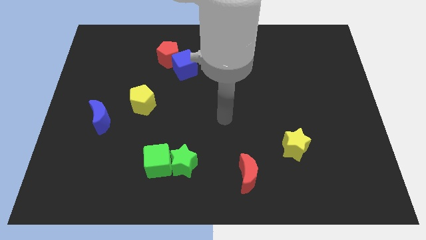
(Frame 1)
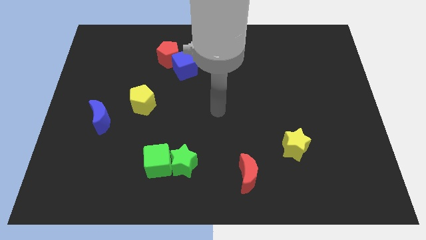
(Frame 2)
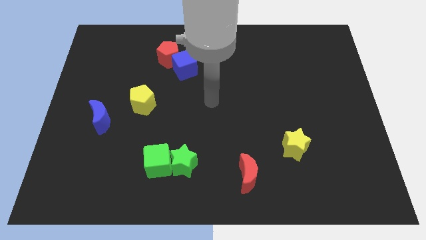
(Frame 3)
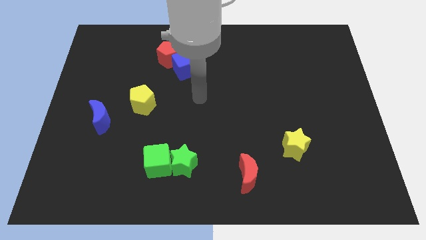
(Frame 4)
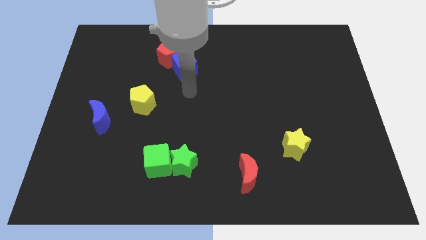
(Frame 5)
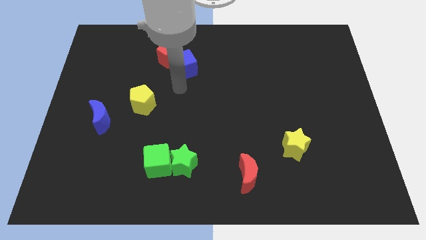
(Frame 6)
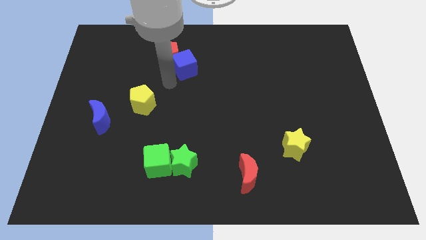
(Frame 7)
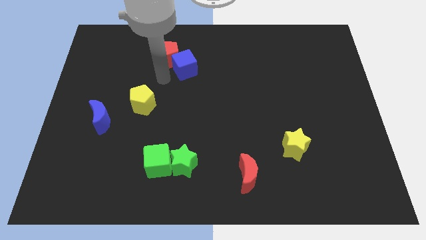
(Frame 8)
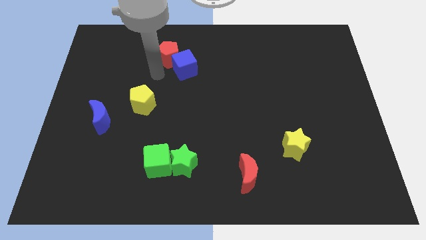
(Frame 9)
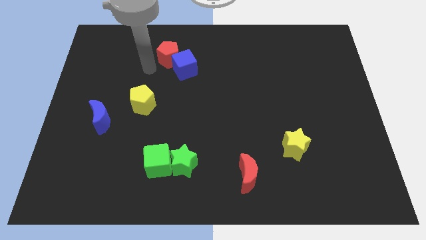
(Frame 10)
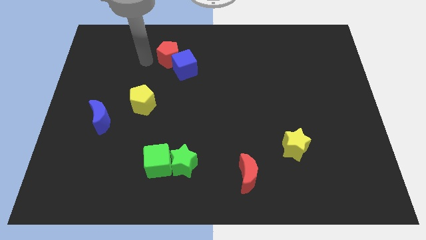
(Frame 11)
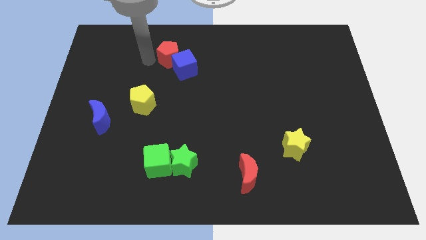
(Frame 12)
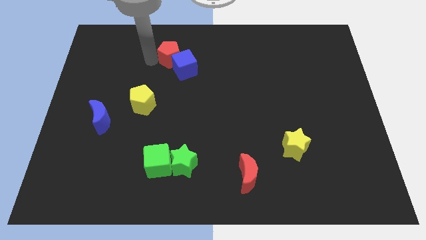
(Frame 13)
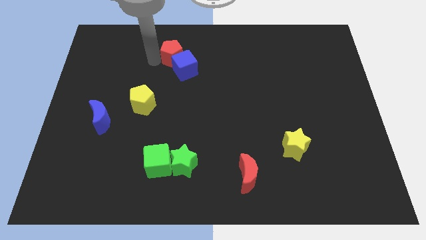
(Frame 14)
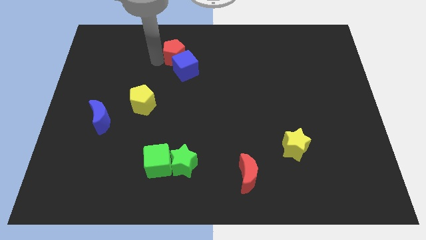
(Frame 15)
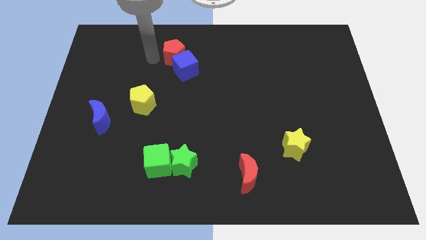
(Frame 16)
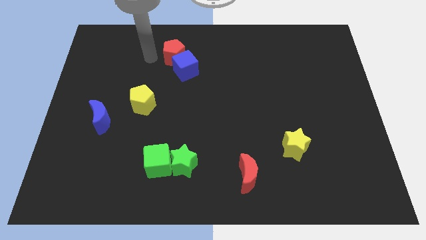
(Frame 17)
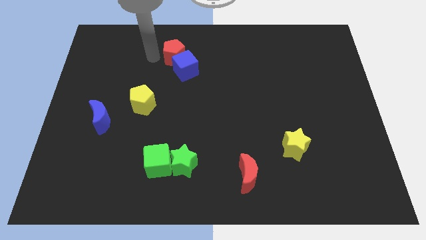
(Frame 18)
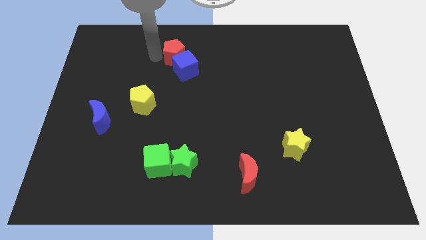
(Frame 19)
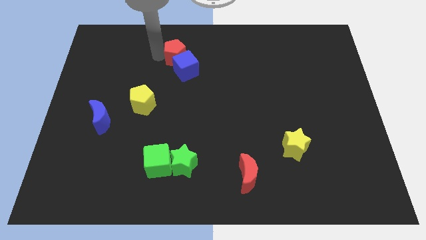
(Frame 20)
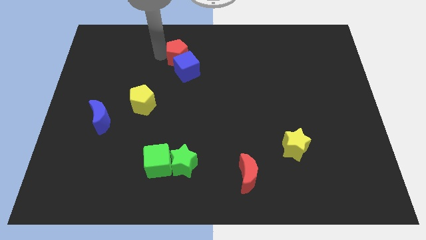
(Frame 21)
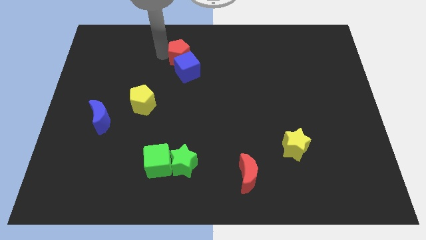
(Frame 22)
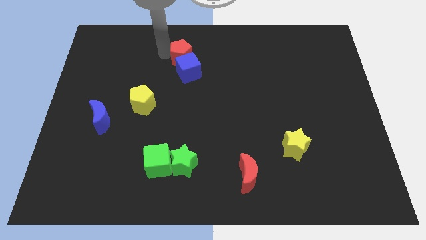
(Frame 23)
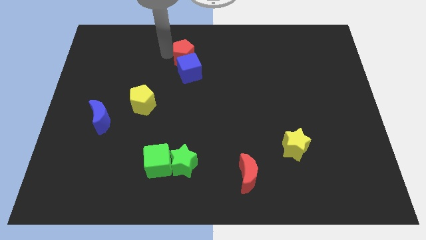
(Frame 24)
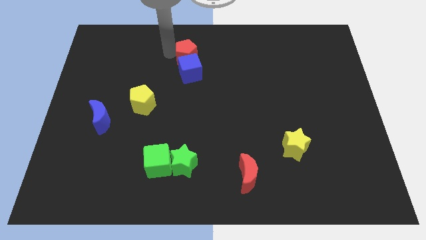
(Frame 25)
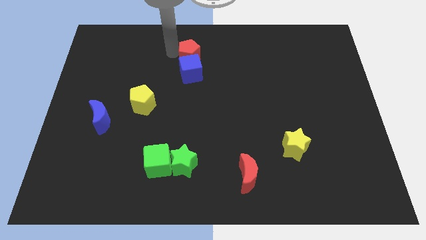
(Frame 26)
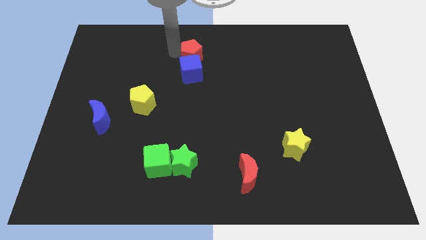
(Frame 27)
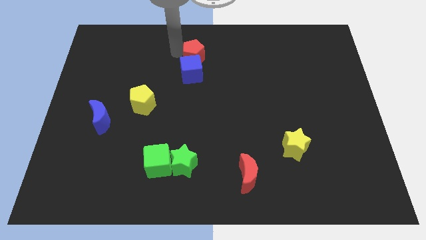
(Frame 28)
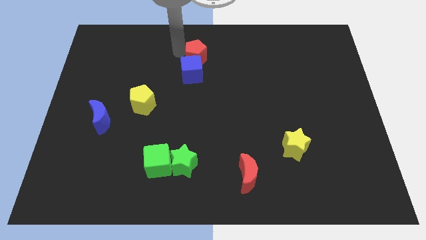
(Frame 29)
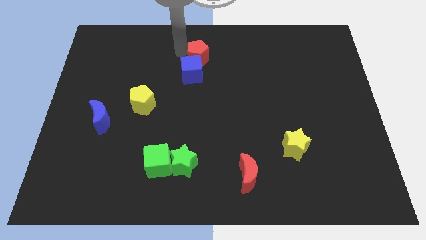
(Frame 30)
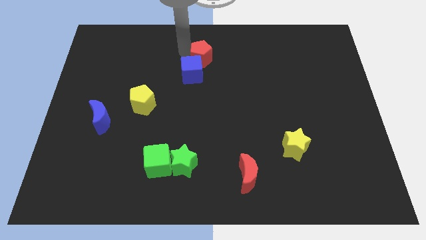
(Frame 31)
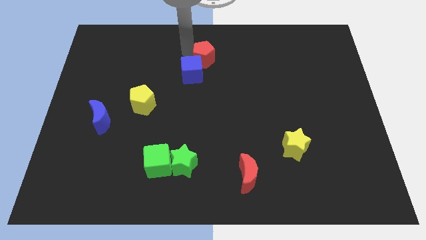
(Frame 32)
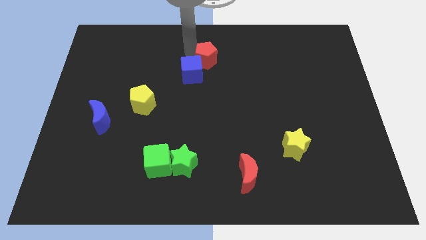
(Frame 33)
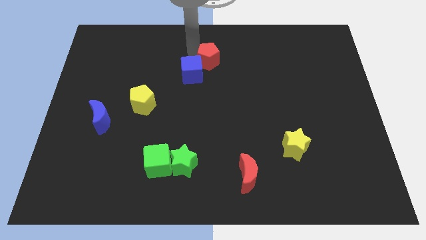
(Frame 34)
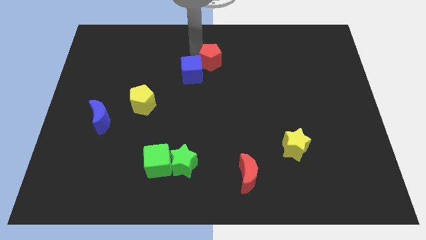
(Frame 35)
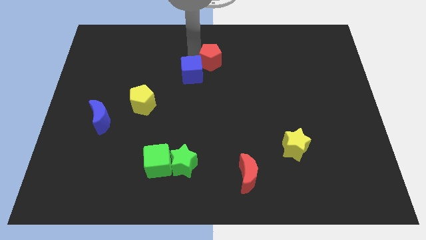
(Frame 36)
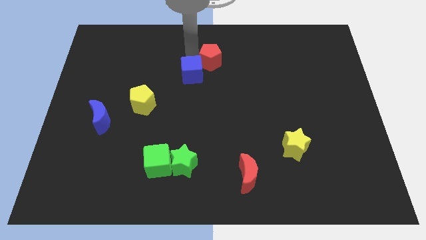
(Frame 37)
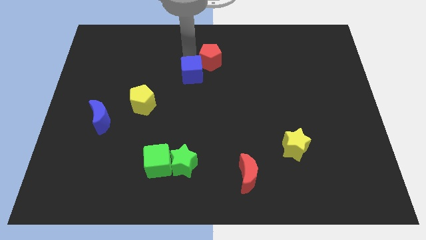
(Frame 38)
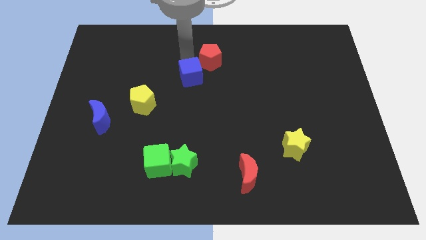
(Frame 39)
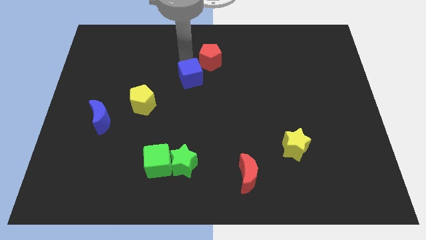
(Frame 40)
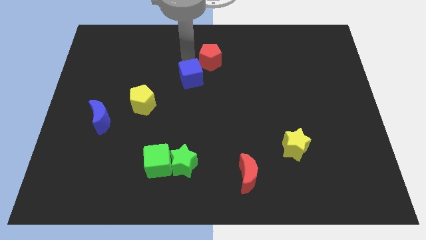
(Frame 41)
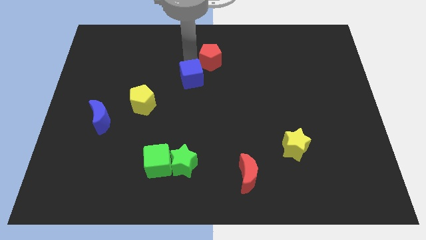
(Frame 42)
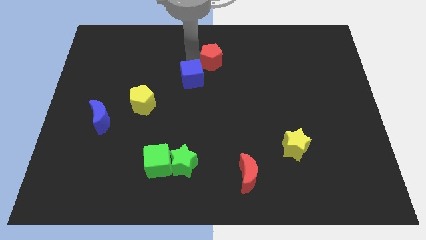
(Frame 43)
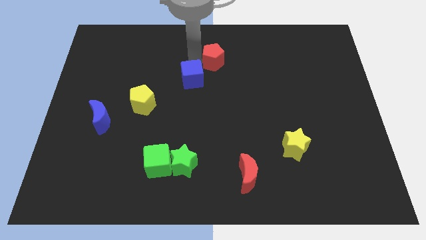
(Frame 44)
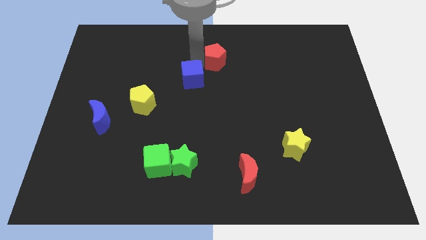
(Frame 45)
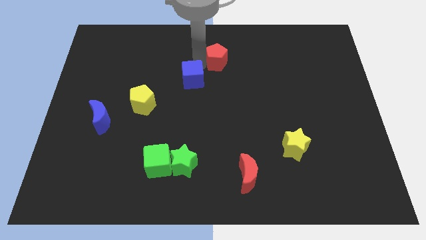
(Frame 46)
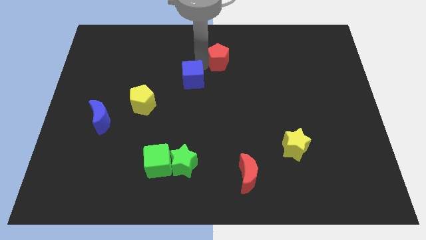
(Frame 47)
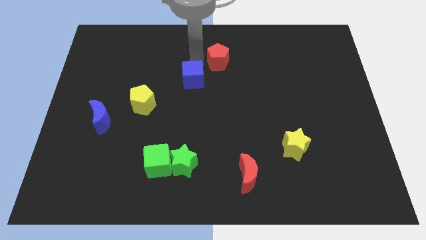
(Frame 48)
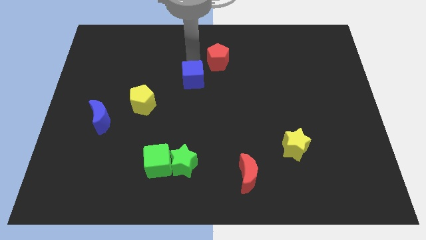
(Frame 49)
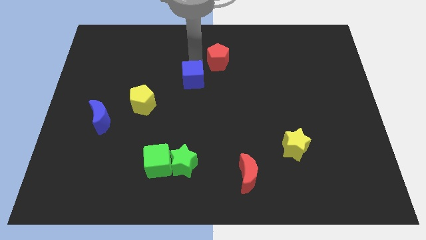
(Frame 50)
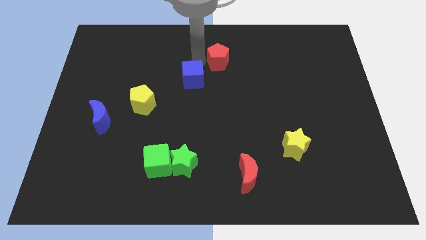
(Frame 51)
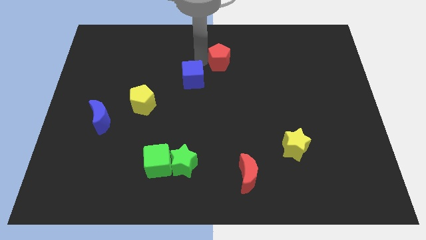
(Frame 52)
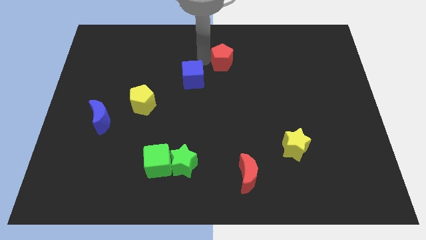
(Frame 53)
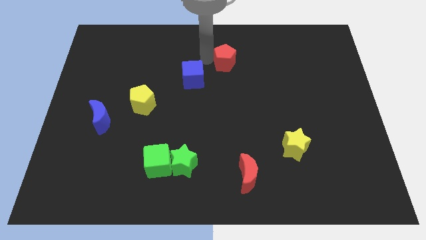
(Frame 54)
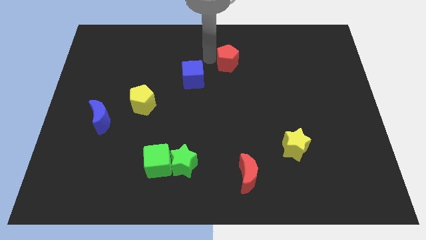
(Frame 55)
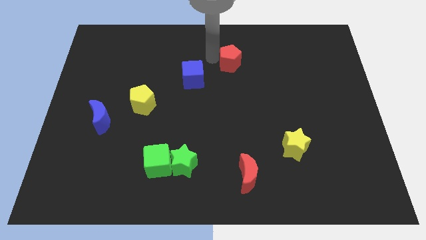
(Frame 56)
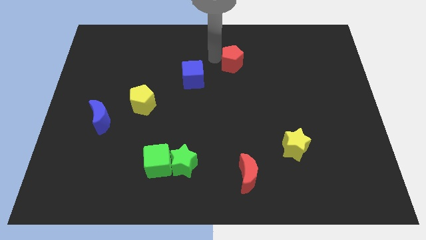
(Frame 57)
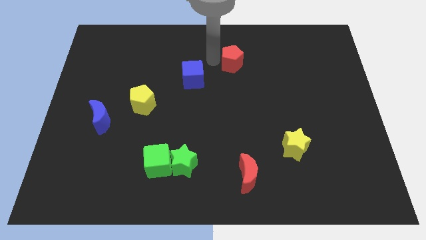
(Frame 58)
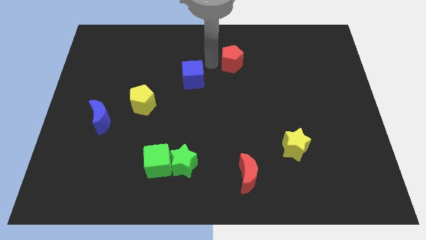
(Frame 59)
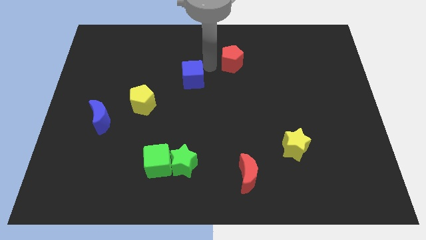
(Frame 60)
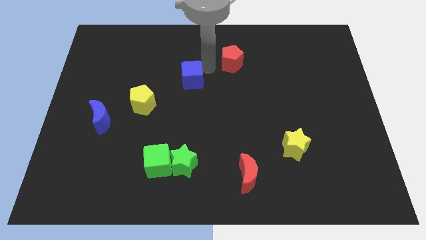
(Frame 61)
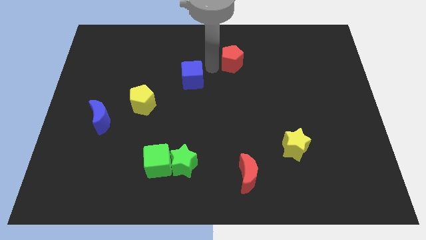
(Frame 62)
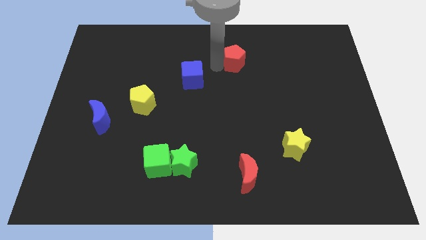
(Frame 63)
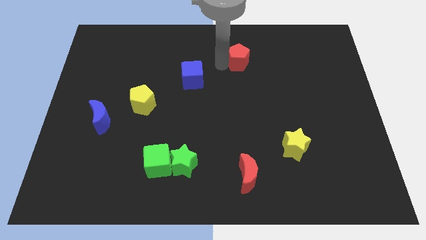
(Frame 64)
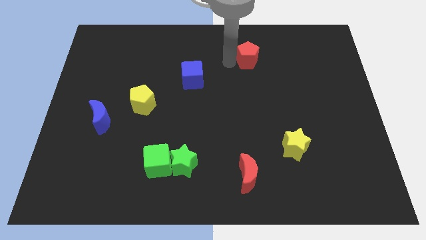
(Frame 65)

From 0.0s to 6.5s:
slide the red pentagon right

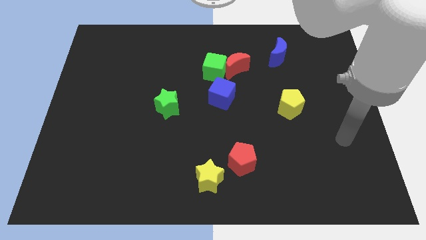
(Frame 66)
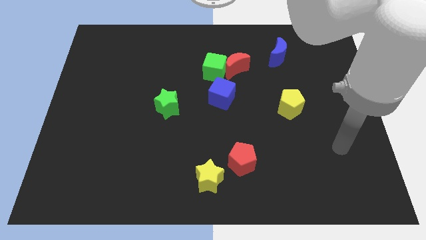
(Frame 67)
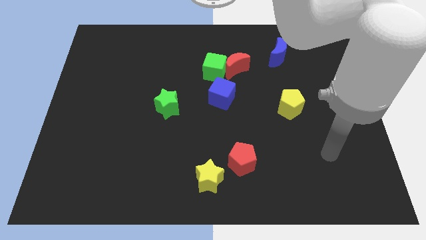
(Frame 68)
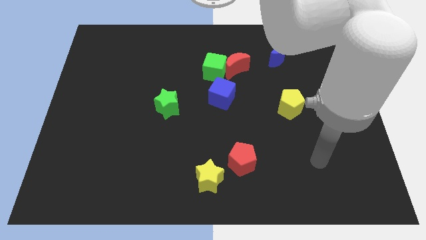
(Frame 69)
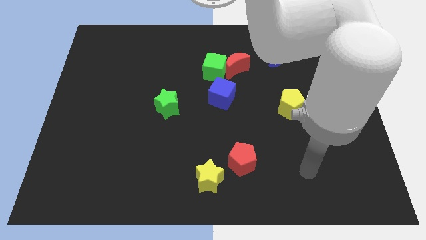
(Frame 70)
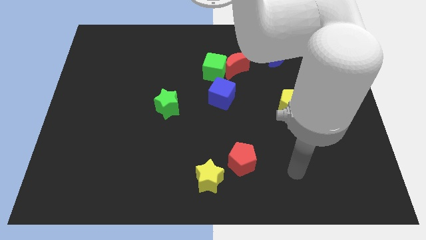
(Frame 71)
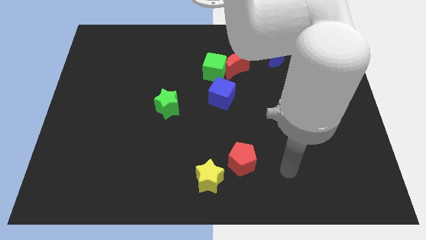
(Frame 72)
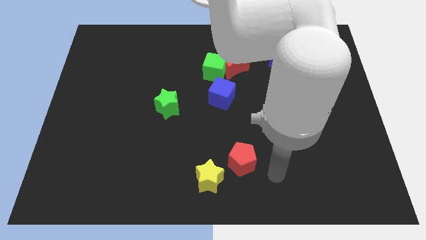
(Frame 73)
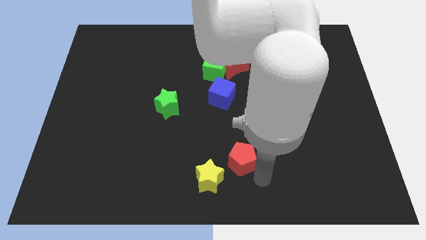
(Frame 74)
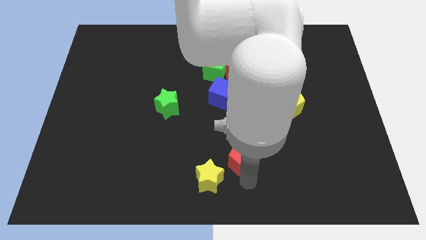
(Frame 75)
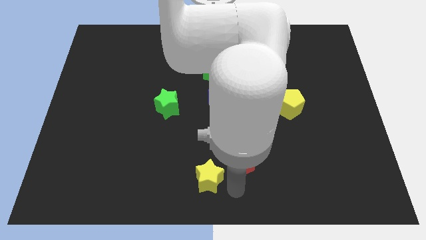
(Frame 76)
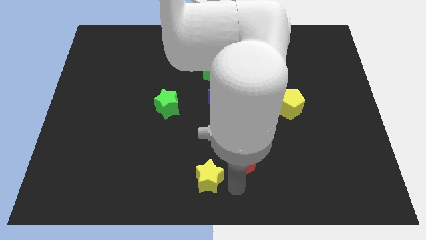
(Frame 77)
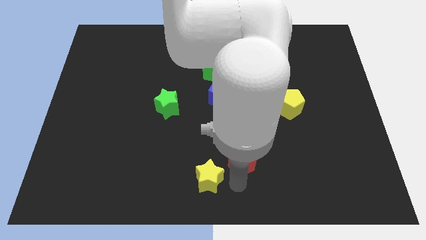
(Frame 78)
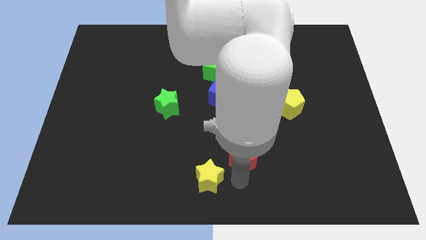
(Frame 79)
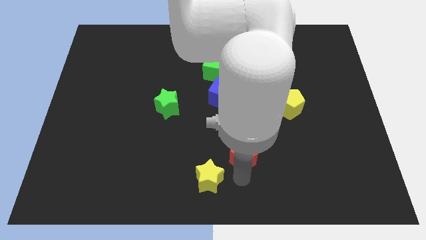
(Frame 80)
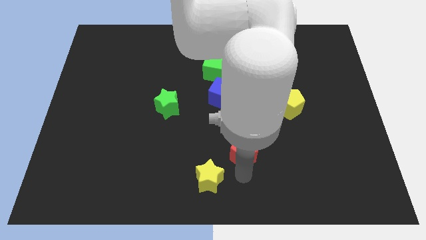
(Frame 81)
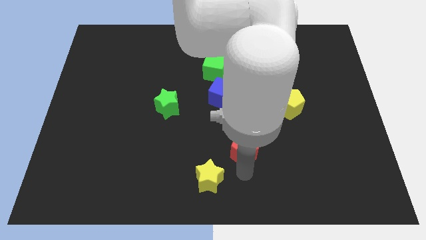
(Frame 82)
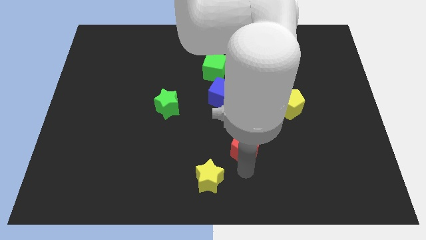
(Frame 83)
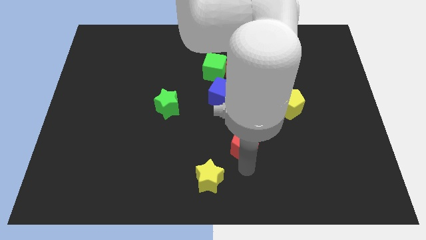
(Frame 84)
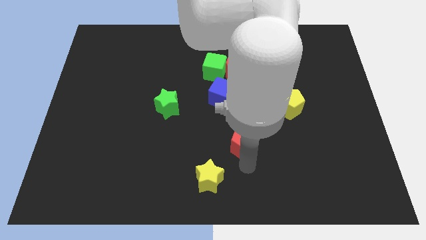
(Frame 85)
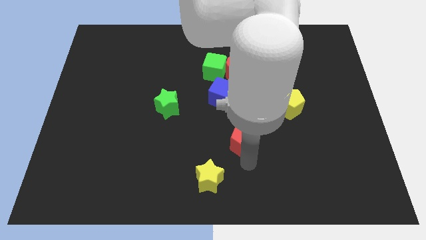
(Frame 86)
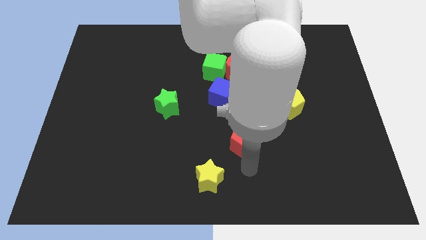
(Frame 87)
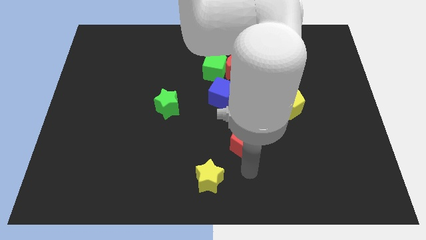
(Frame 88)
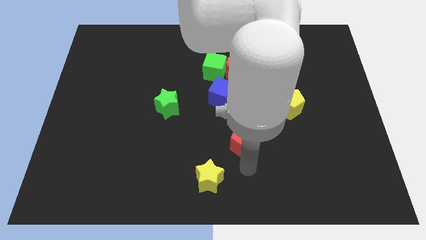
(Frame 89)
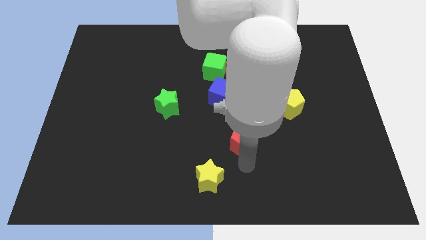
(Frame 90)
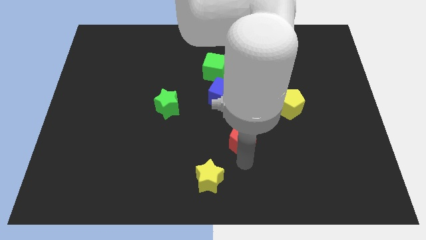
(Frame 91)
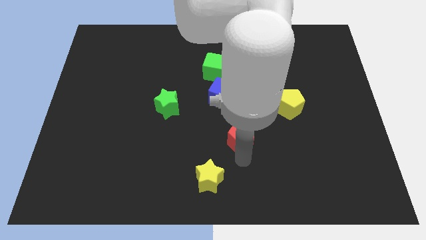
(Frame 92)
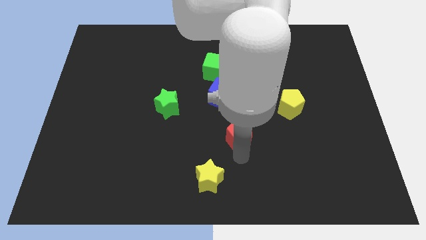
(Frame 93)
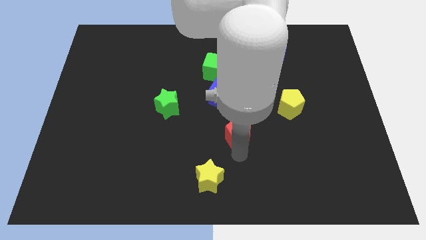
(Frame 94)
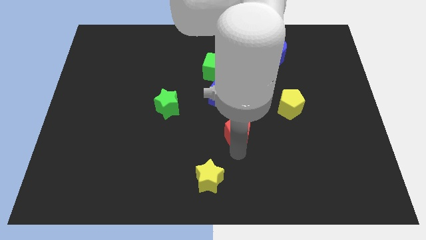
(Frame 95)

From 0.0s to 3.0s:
push the red pentagon up slightly
